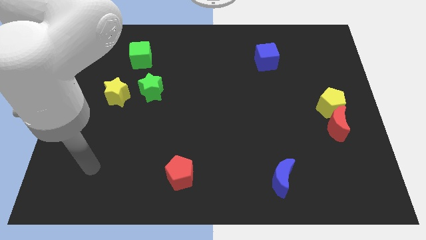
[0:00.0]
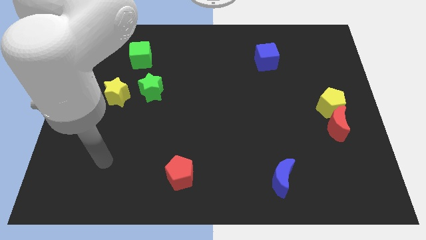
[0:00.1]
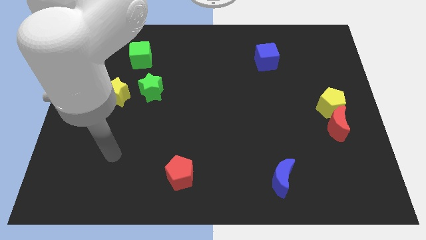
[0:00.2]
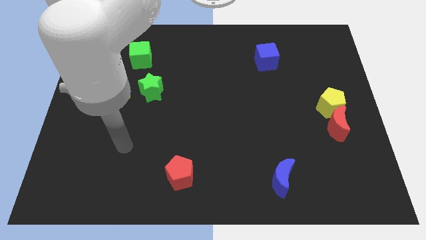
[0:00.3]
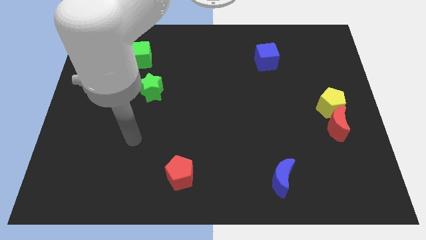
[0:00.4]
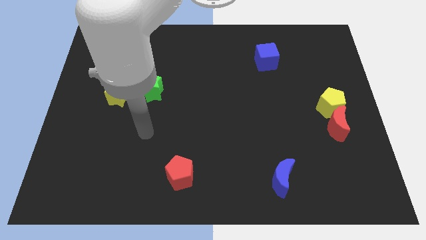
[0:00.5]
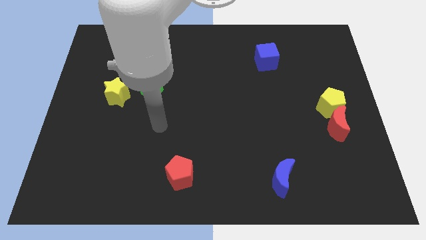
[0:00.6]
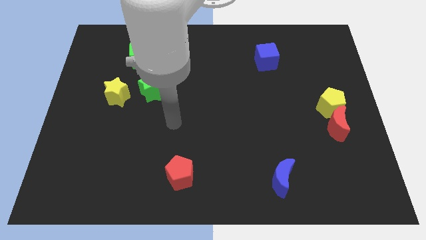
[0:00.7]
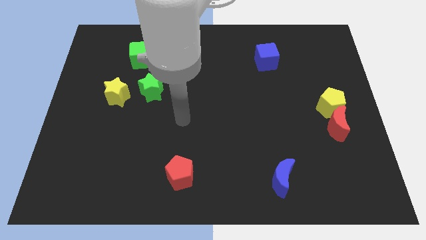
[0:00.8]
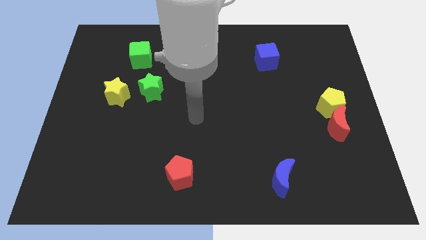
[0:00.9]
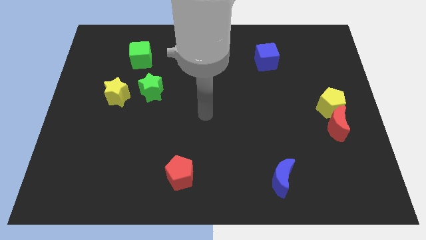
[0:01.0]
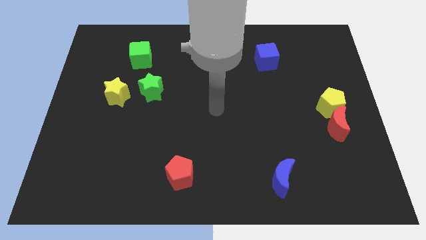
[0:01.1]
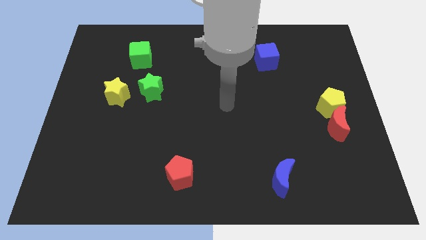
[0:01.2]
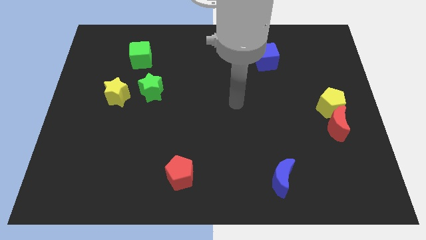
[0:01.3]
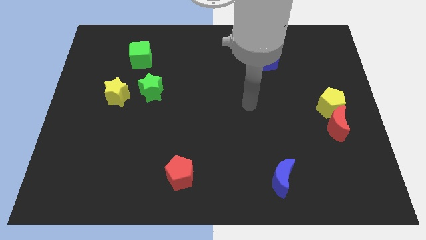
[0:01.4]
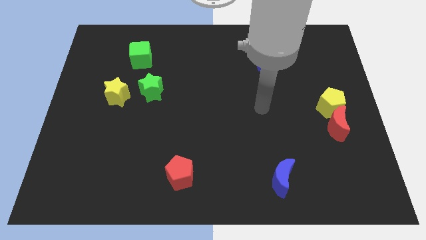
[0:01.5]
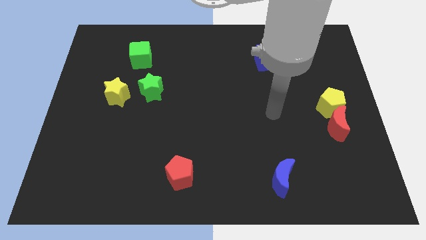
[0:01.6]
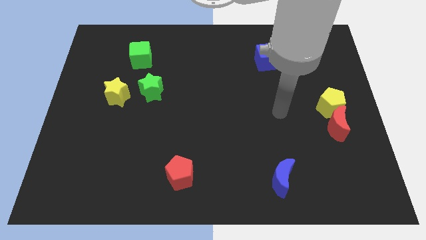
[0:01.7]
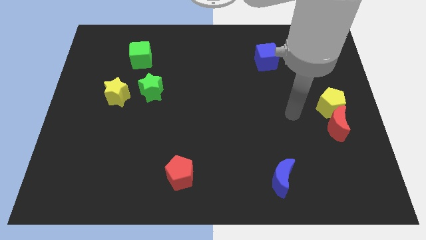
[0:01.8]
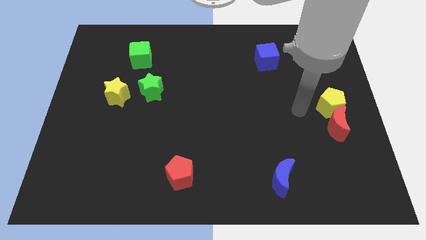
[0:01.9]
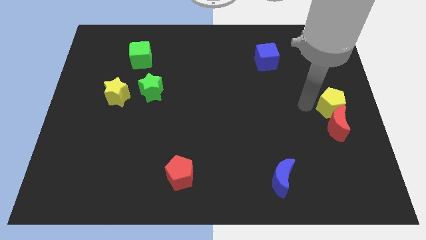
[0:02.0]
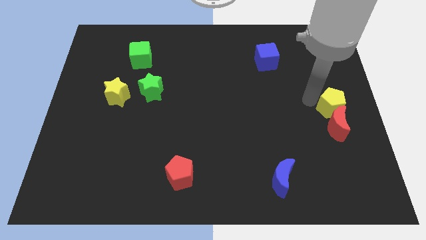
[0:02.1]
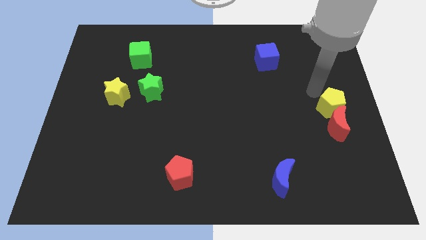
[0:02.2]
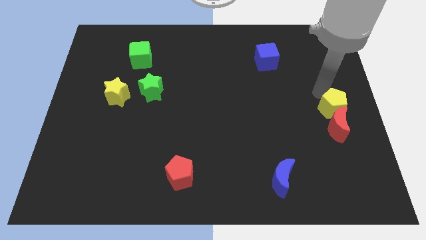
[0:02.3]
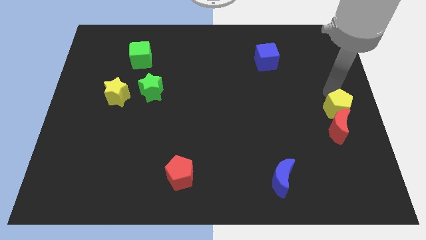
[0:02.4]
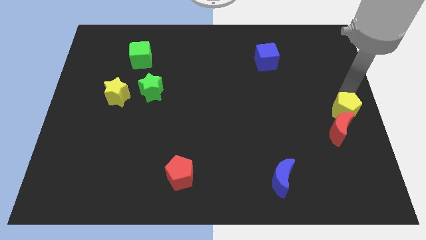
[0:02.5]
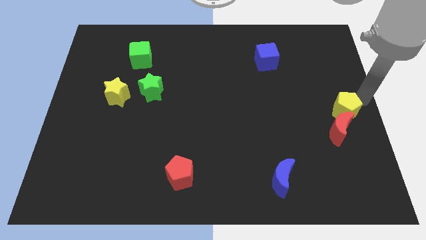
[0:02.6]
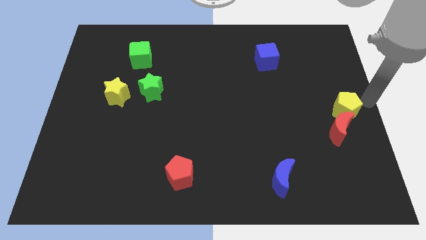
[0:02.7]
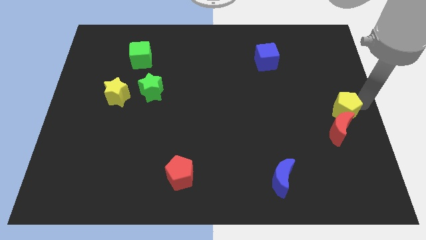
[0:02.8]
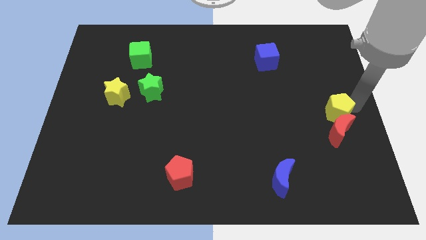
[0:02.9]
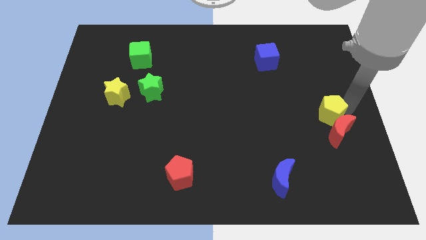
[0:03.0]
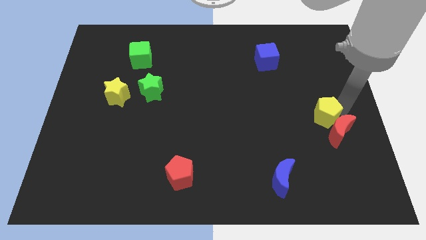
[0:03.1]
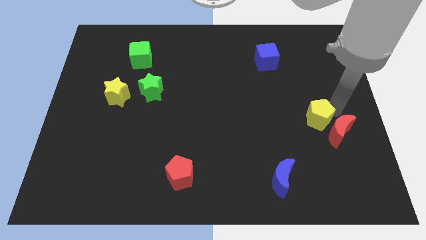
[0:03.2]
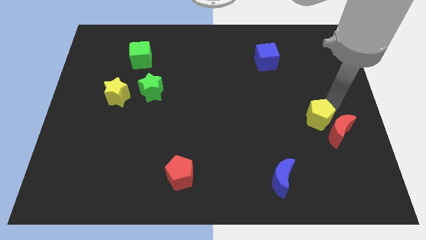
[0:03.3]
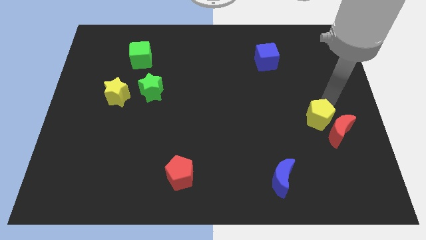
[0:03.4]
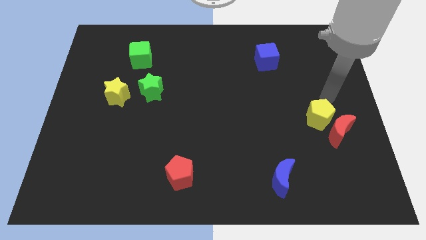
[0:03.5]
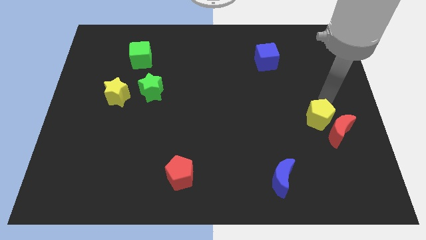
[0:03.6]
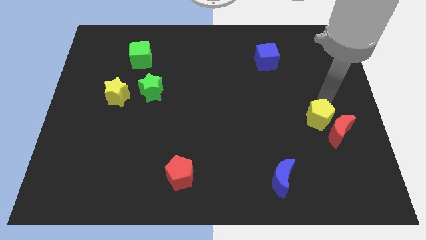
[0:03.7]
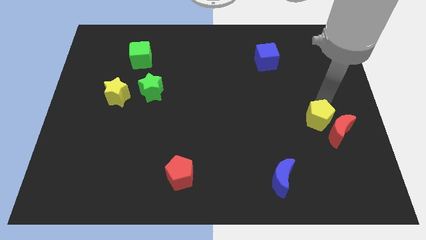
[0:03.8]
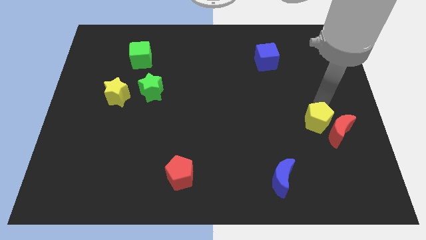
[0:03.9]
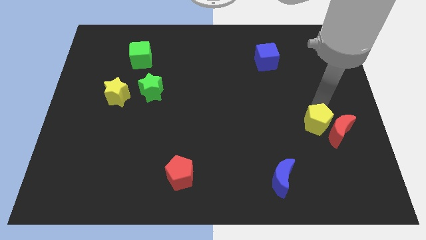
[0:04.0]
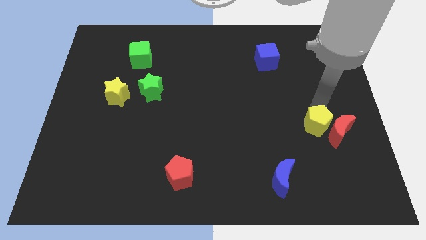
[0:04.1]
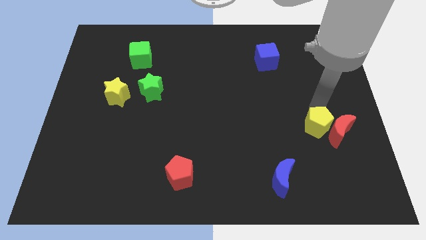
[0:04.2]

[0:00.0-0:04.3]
slide the yellow pentagon down and left diagonally slightly

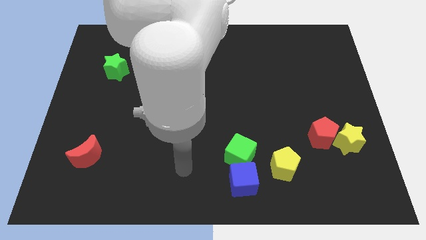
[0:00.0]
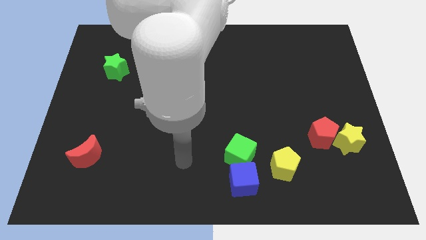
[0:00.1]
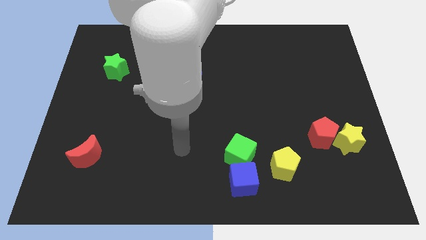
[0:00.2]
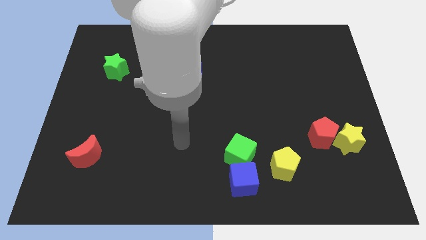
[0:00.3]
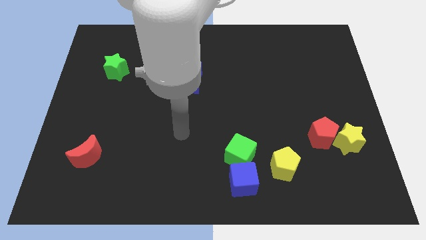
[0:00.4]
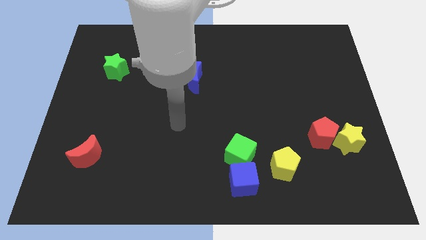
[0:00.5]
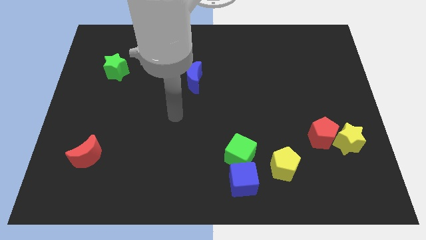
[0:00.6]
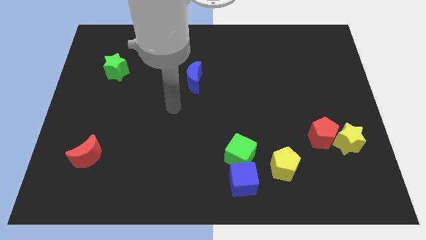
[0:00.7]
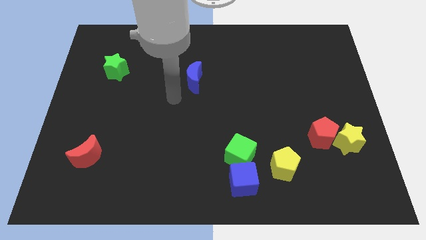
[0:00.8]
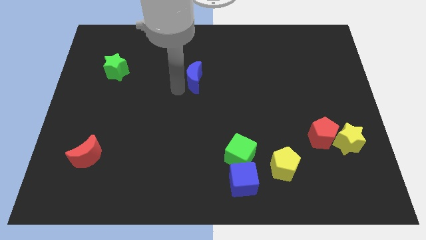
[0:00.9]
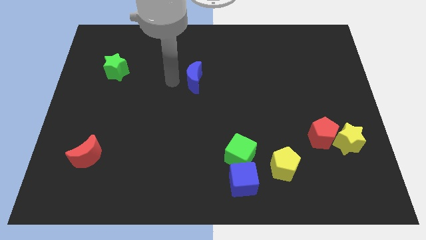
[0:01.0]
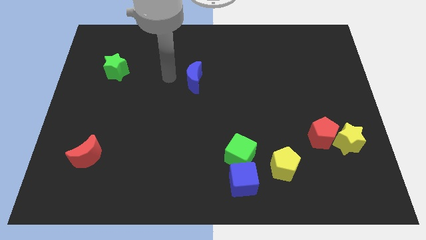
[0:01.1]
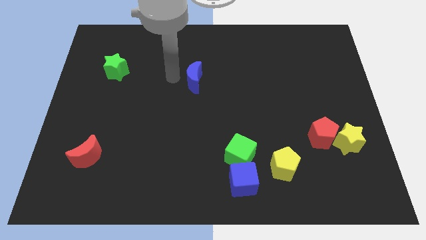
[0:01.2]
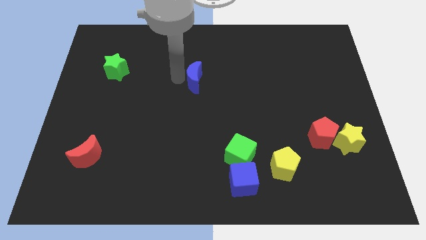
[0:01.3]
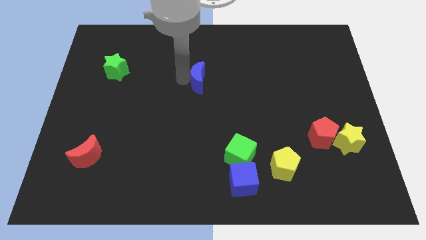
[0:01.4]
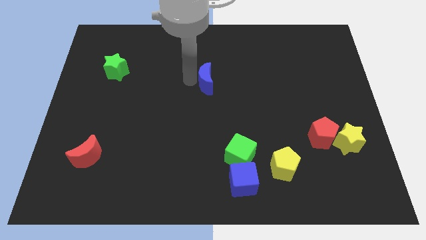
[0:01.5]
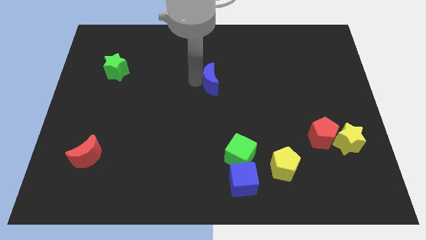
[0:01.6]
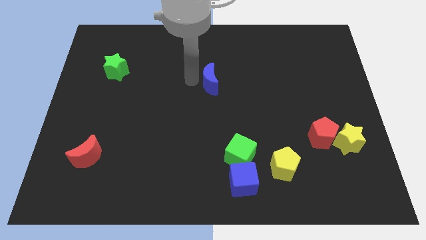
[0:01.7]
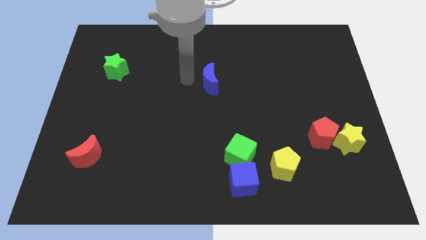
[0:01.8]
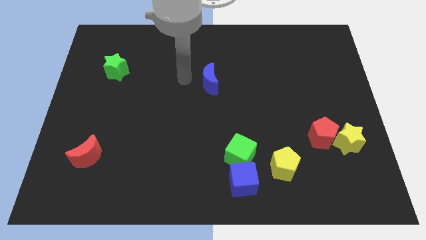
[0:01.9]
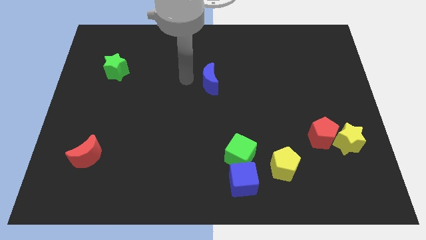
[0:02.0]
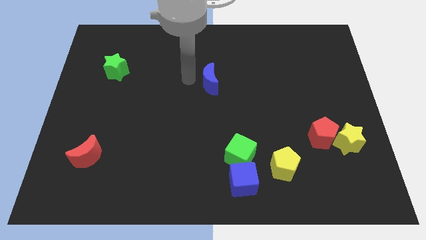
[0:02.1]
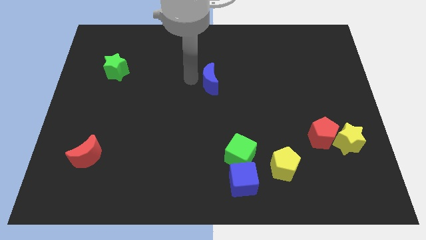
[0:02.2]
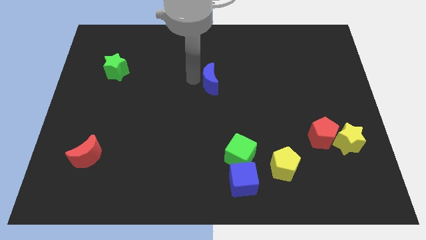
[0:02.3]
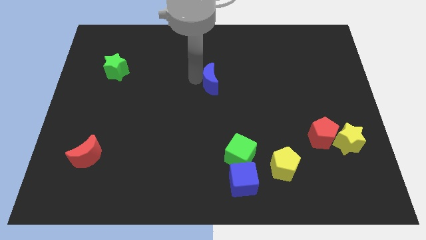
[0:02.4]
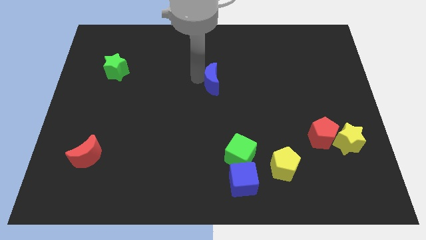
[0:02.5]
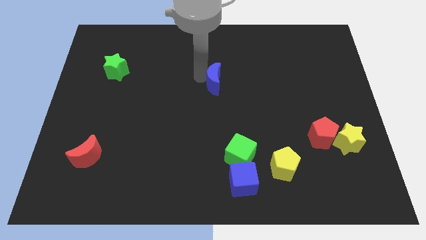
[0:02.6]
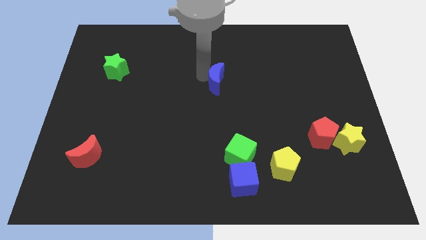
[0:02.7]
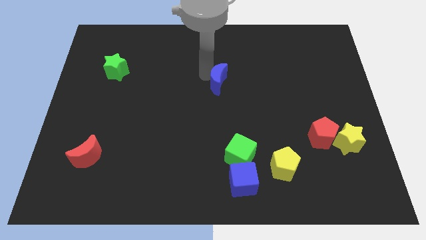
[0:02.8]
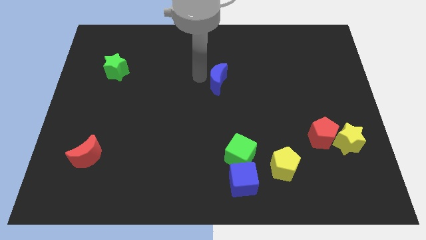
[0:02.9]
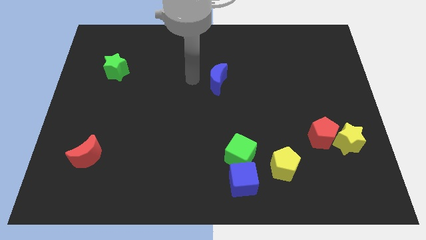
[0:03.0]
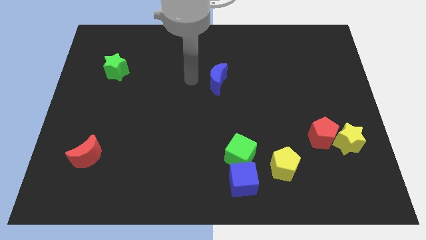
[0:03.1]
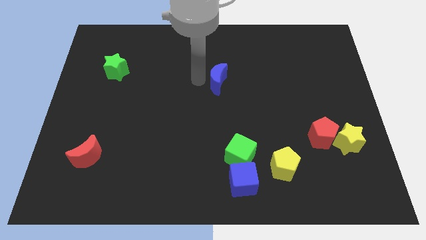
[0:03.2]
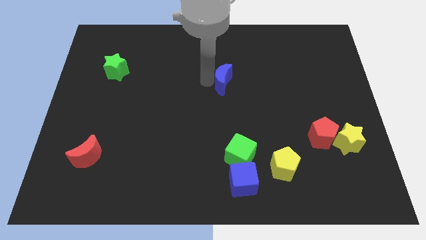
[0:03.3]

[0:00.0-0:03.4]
move the blue moon right a bit

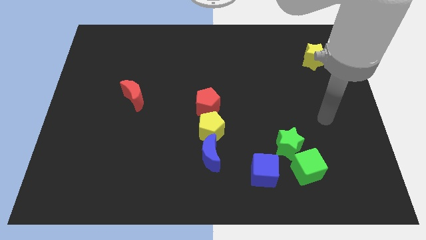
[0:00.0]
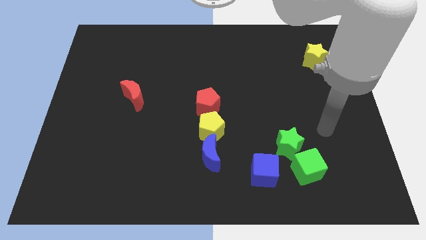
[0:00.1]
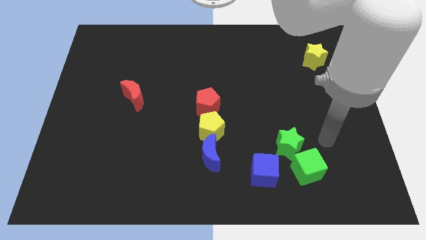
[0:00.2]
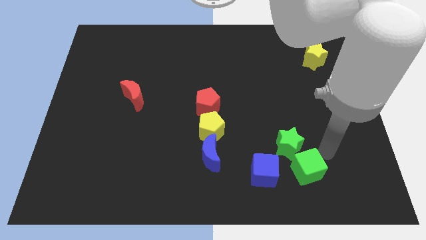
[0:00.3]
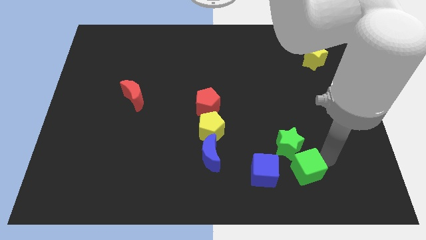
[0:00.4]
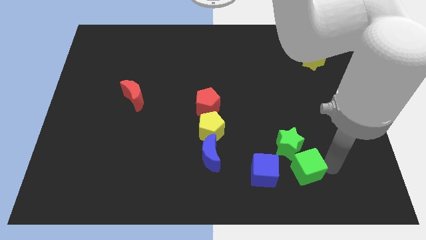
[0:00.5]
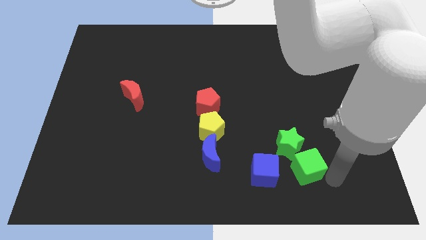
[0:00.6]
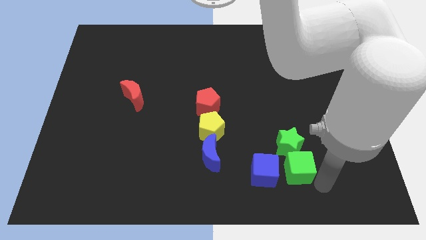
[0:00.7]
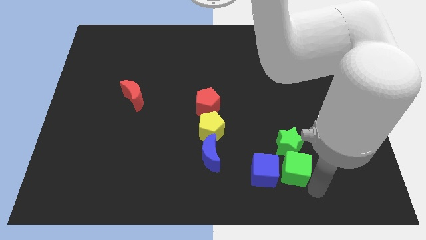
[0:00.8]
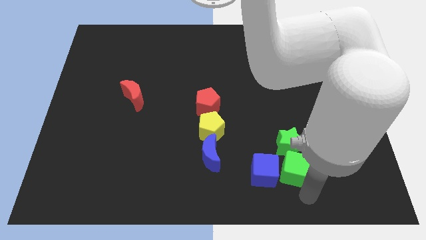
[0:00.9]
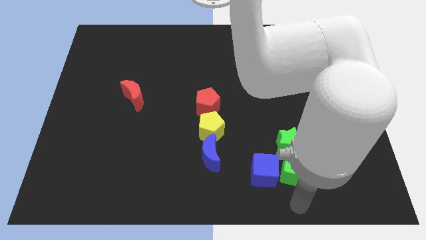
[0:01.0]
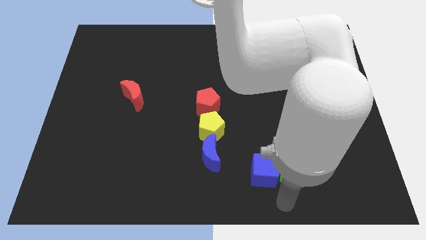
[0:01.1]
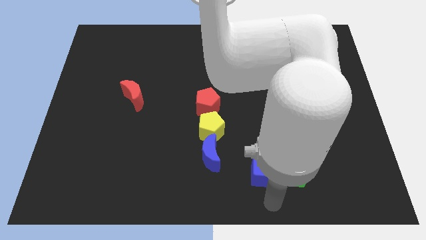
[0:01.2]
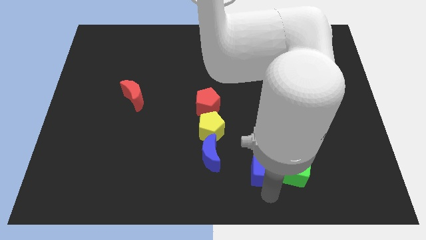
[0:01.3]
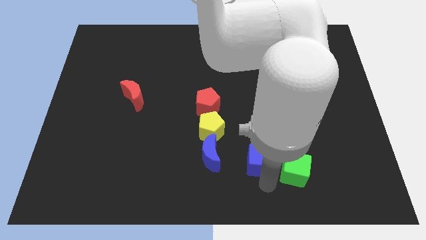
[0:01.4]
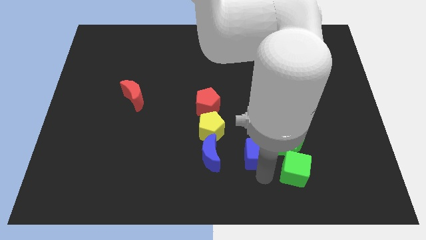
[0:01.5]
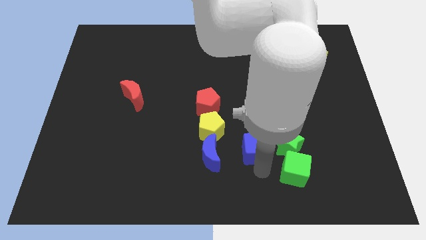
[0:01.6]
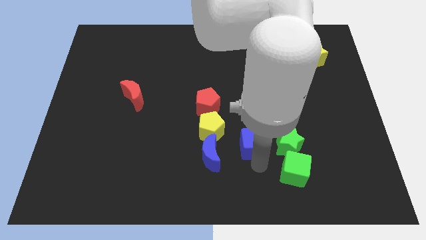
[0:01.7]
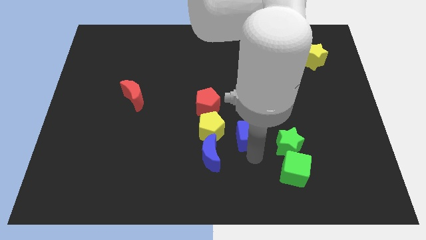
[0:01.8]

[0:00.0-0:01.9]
slightly move the blue cube up
